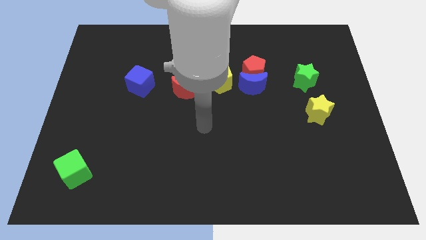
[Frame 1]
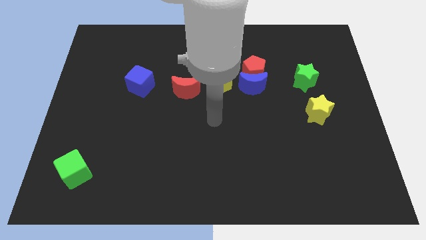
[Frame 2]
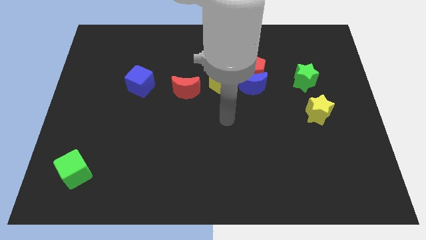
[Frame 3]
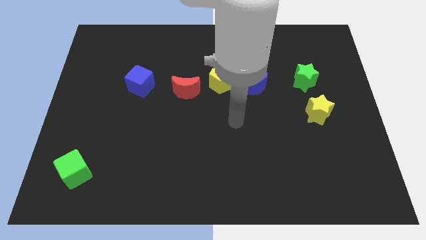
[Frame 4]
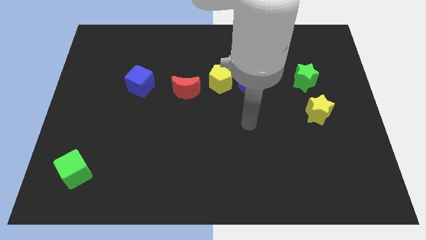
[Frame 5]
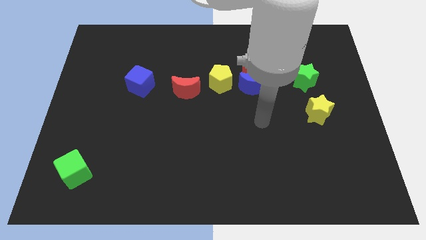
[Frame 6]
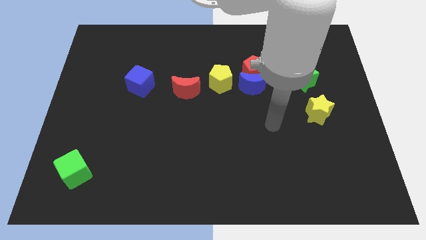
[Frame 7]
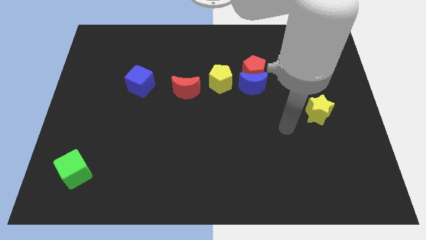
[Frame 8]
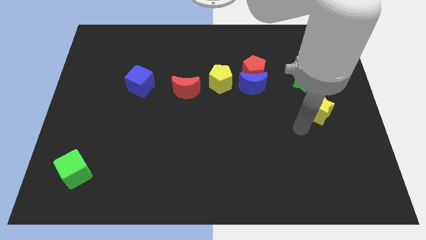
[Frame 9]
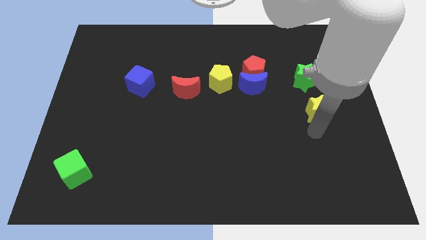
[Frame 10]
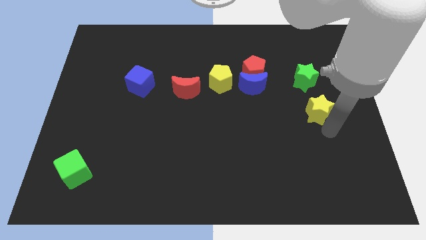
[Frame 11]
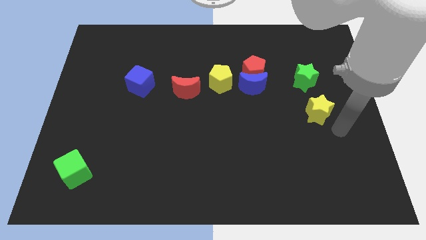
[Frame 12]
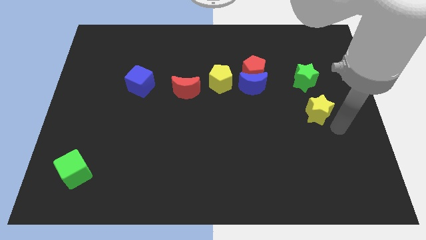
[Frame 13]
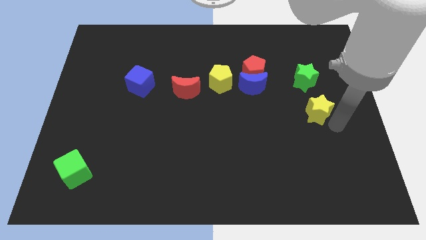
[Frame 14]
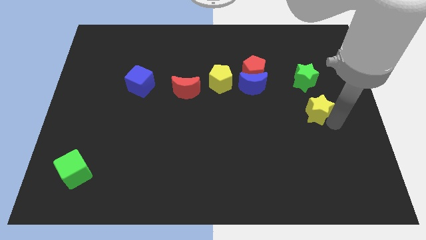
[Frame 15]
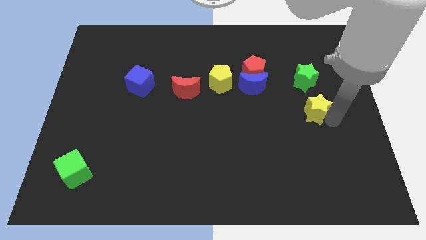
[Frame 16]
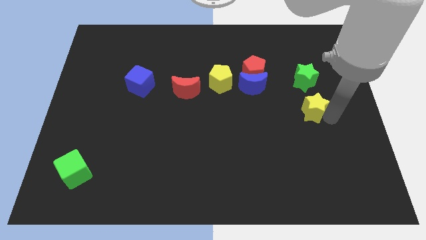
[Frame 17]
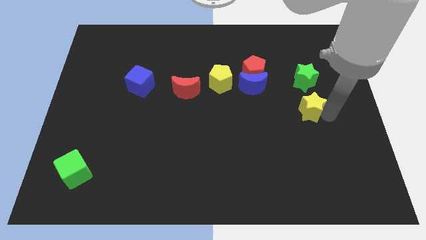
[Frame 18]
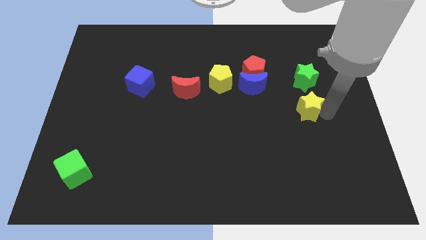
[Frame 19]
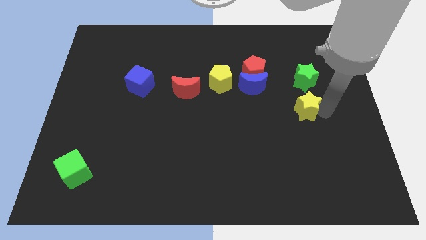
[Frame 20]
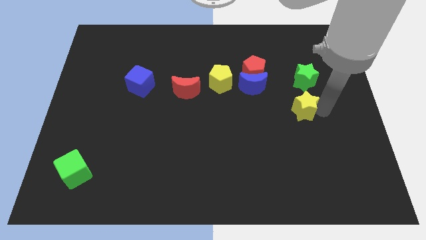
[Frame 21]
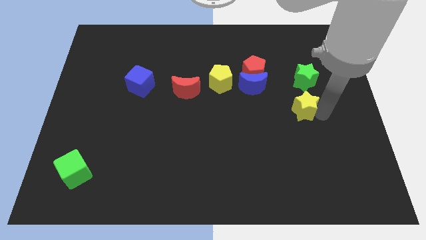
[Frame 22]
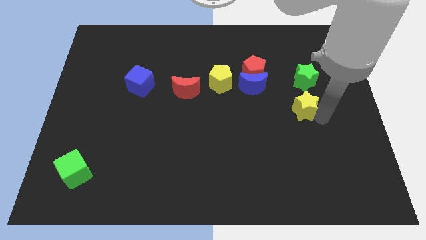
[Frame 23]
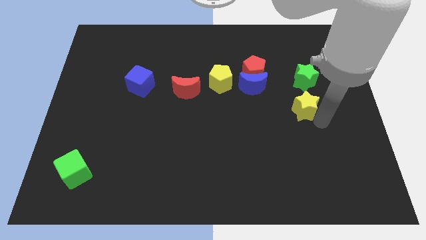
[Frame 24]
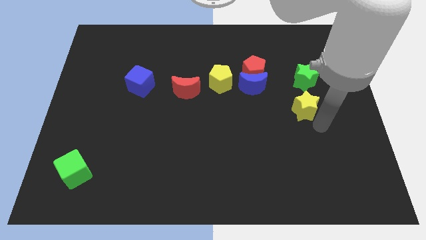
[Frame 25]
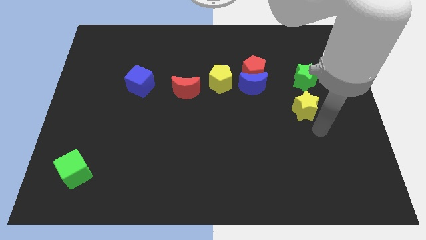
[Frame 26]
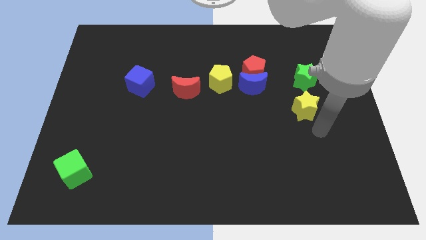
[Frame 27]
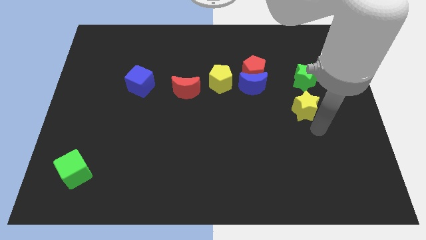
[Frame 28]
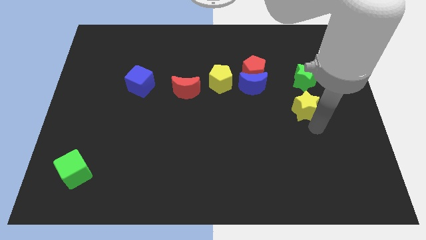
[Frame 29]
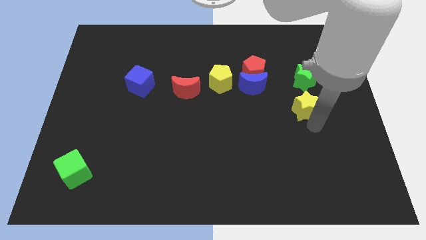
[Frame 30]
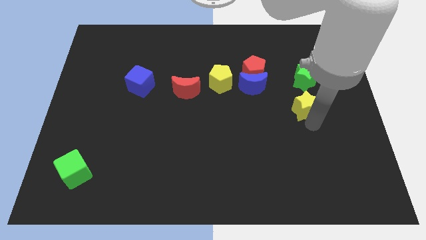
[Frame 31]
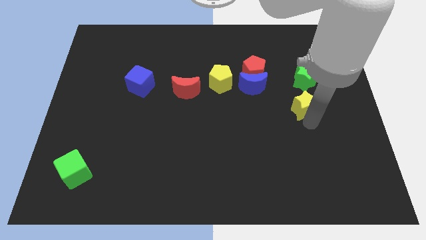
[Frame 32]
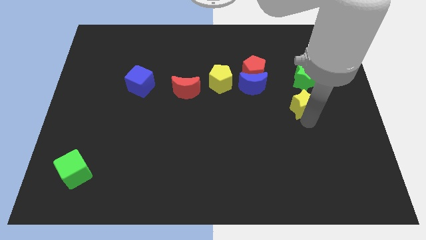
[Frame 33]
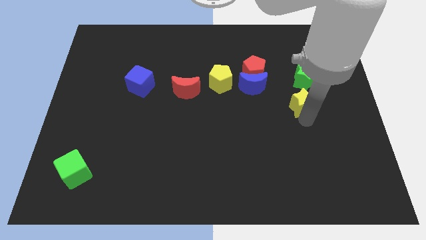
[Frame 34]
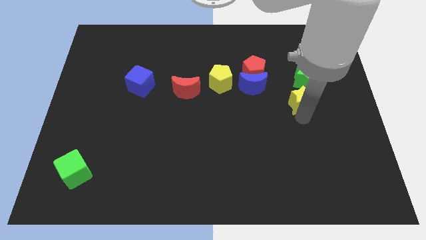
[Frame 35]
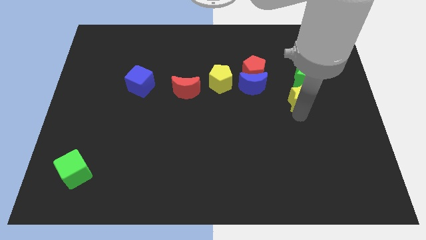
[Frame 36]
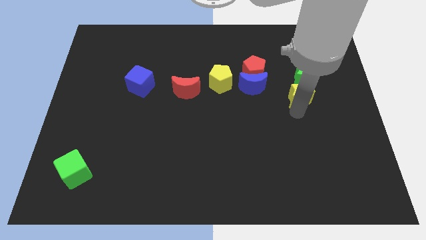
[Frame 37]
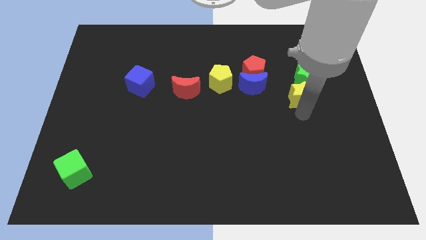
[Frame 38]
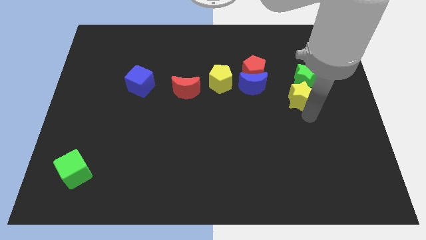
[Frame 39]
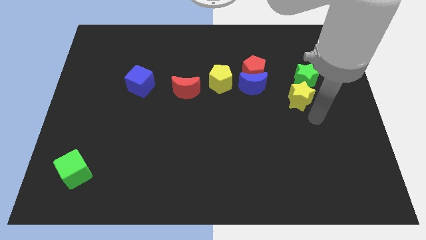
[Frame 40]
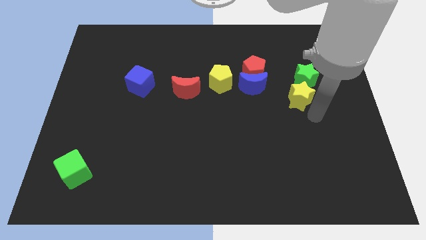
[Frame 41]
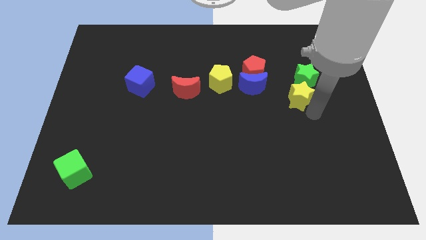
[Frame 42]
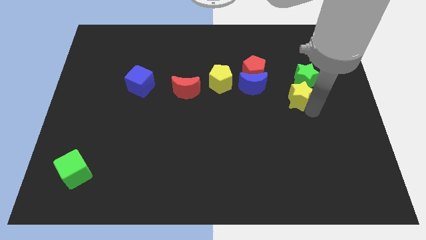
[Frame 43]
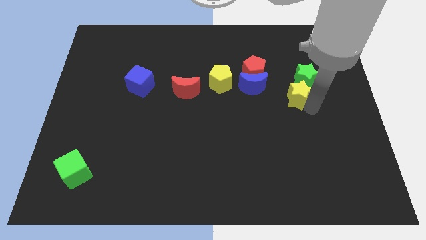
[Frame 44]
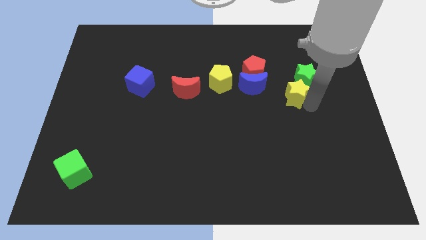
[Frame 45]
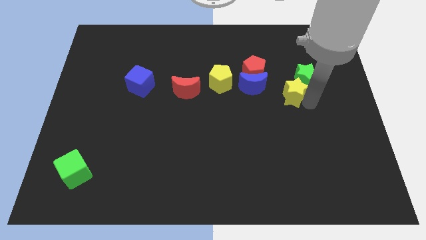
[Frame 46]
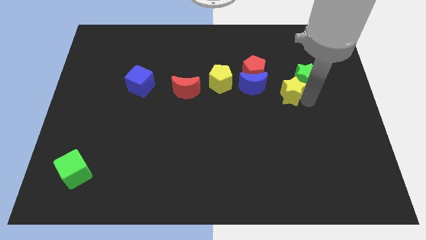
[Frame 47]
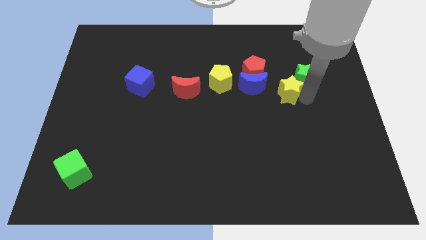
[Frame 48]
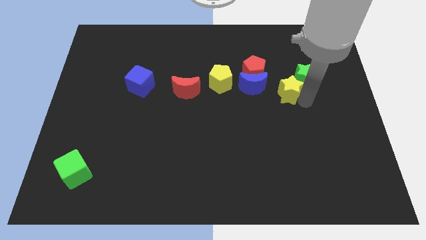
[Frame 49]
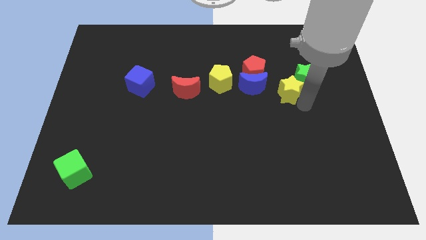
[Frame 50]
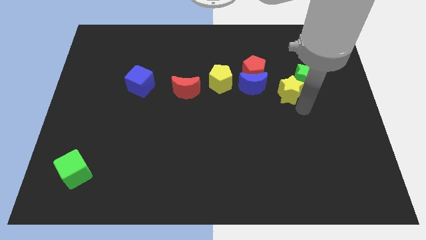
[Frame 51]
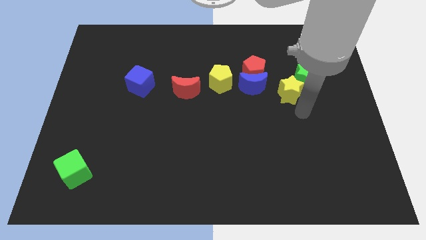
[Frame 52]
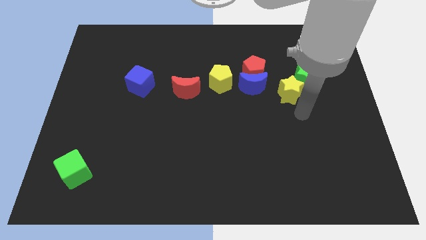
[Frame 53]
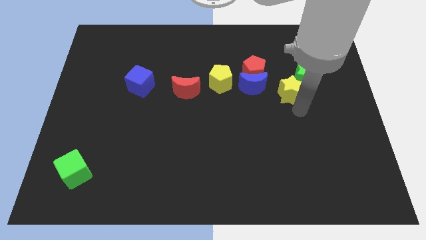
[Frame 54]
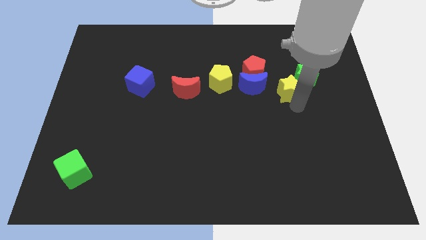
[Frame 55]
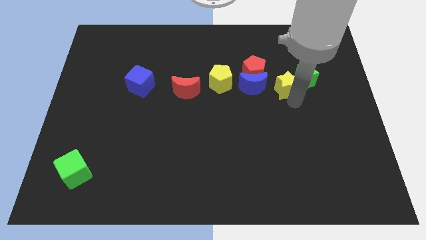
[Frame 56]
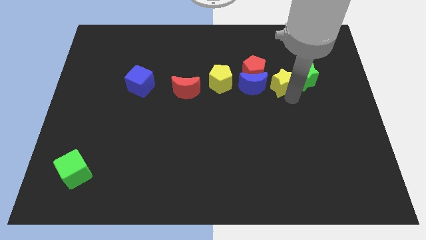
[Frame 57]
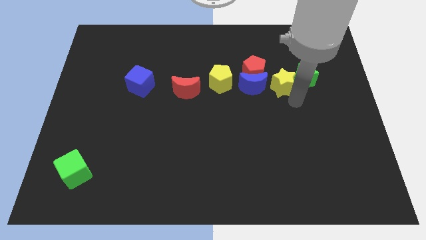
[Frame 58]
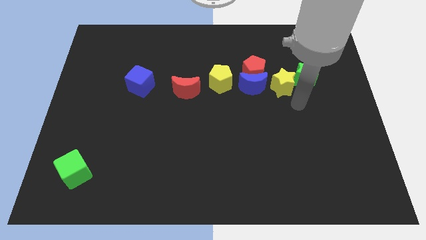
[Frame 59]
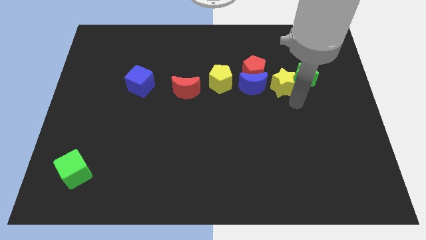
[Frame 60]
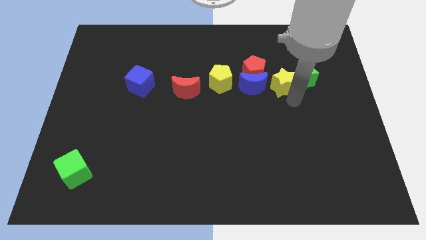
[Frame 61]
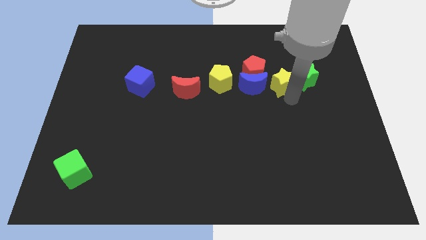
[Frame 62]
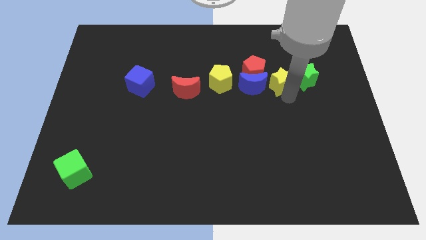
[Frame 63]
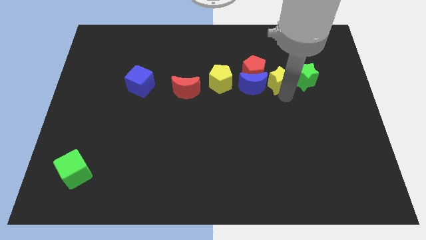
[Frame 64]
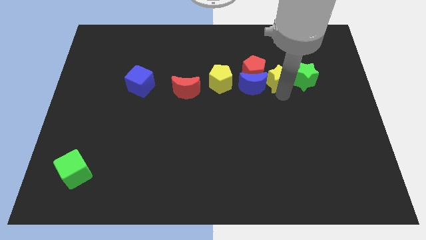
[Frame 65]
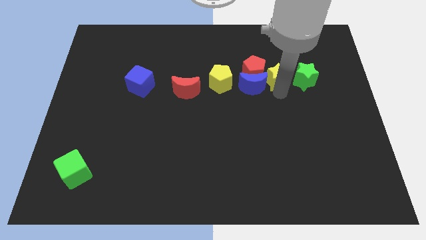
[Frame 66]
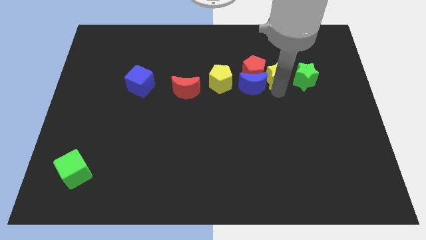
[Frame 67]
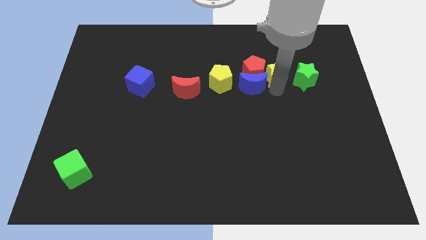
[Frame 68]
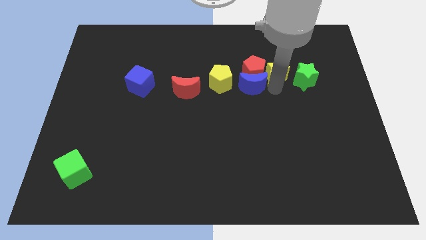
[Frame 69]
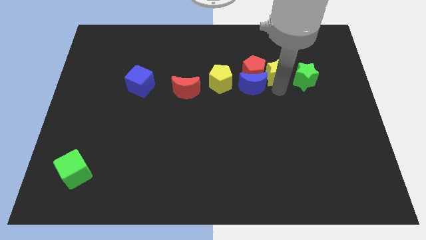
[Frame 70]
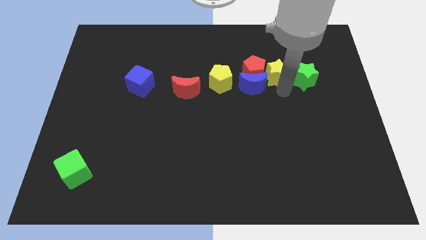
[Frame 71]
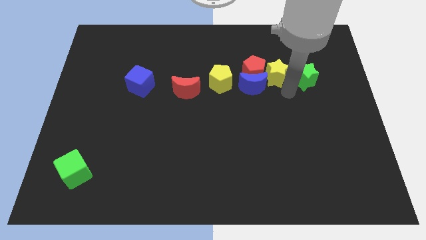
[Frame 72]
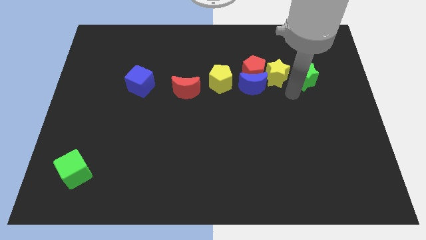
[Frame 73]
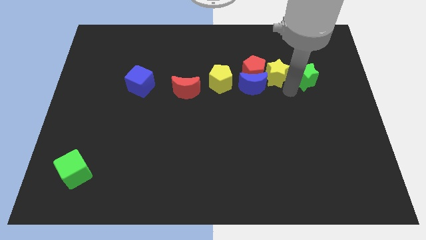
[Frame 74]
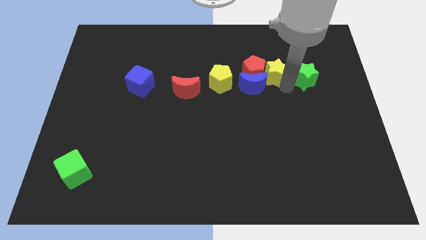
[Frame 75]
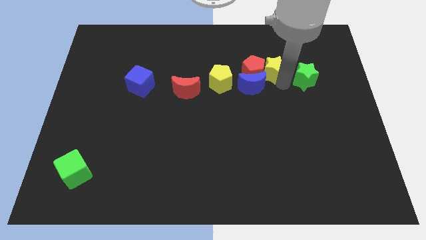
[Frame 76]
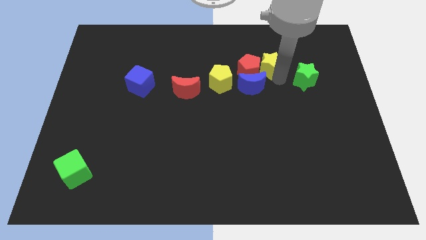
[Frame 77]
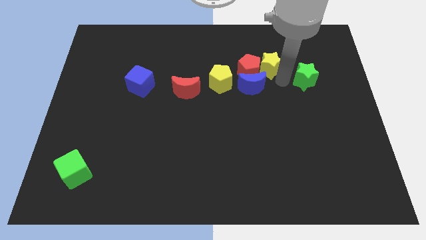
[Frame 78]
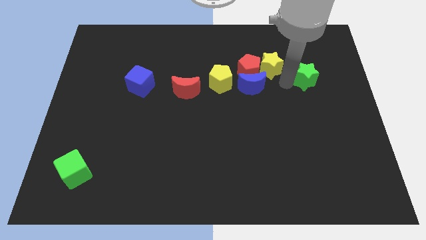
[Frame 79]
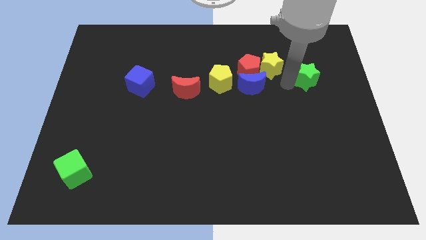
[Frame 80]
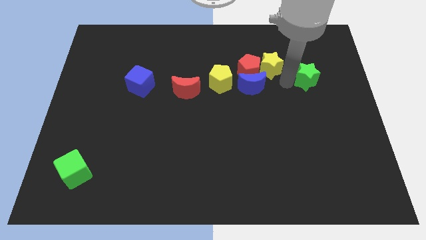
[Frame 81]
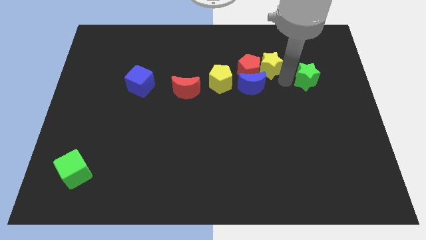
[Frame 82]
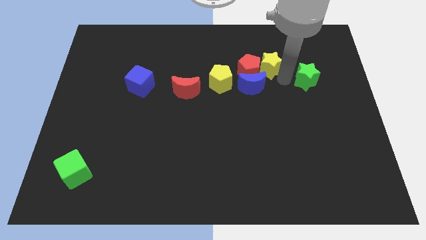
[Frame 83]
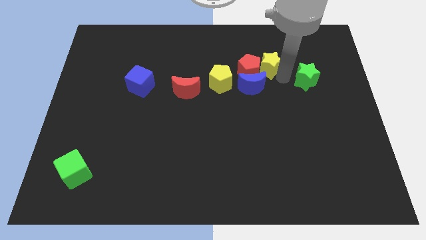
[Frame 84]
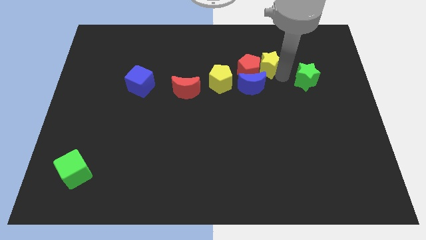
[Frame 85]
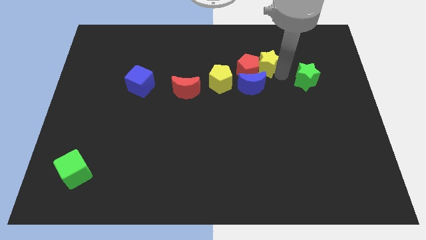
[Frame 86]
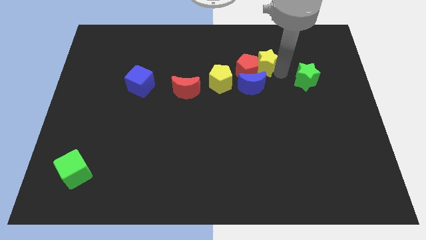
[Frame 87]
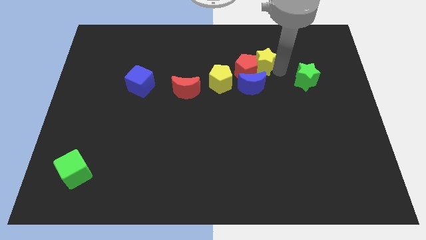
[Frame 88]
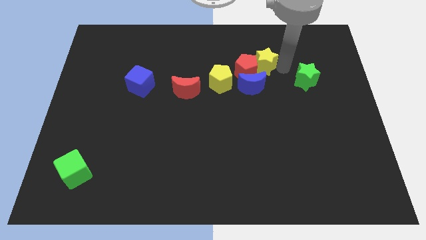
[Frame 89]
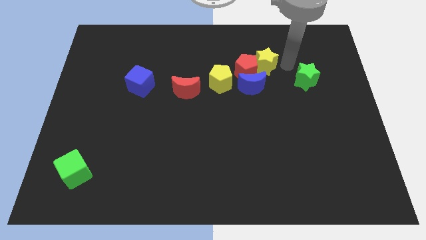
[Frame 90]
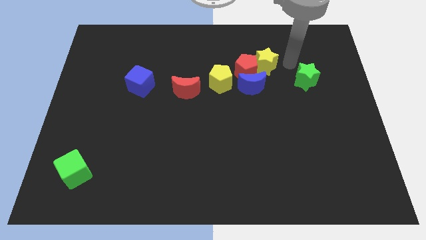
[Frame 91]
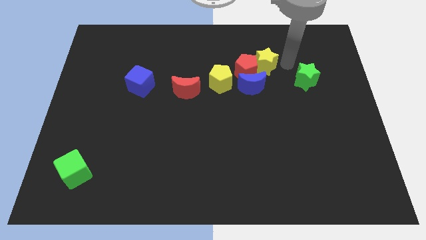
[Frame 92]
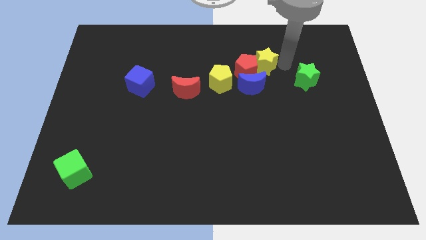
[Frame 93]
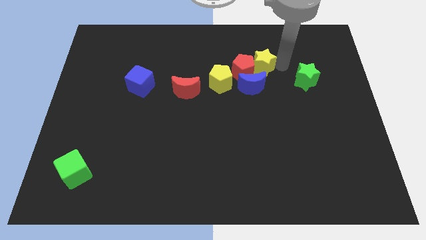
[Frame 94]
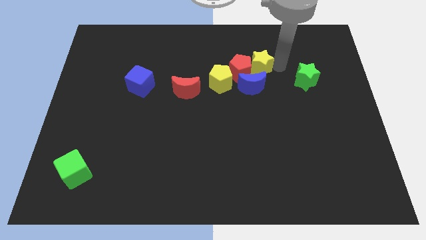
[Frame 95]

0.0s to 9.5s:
put the yellow star to the top right side of the yellow pentagon
